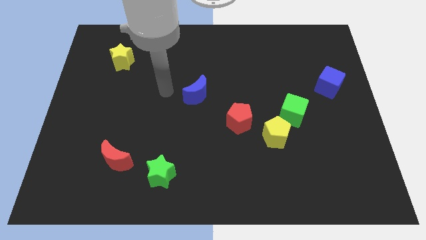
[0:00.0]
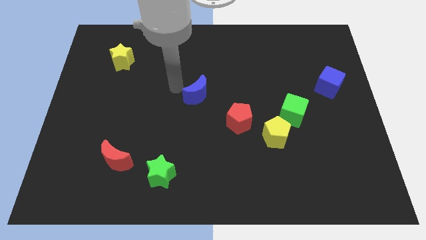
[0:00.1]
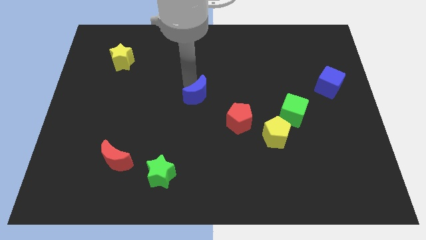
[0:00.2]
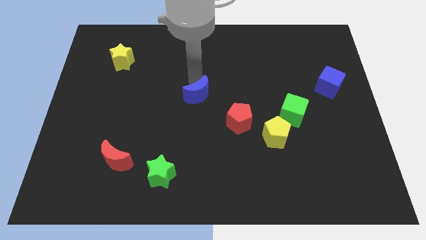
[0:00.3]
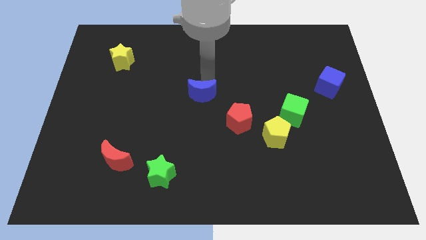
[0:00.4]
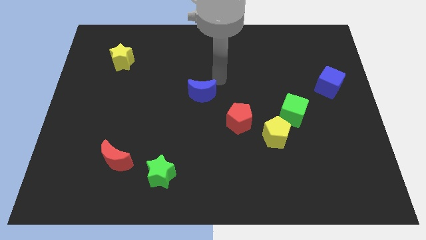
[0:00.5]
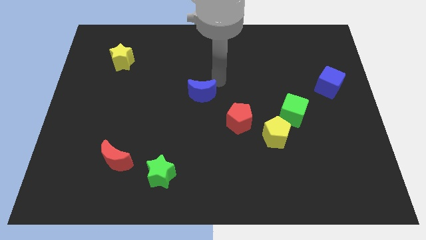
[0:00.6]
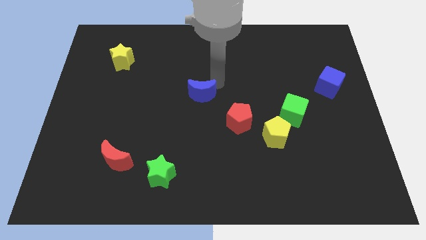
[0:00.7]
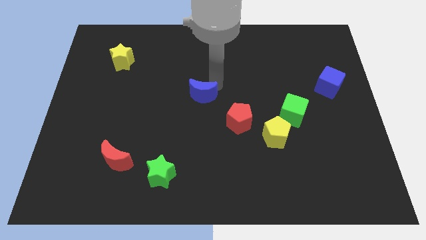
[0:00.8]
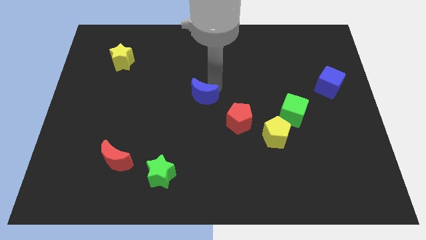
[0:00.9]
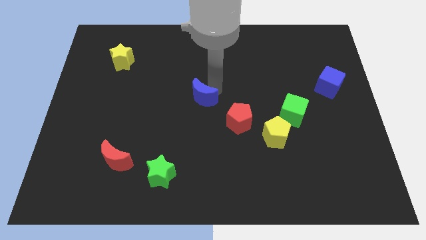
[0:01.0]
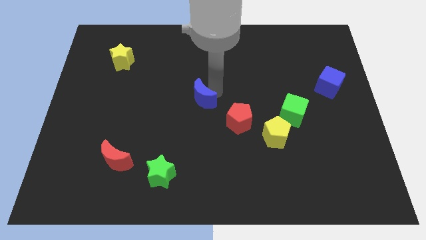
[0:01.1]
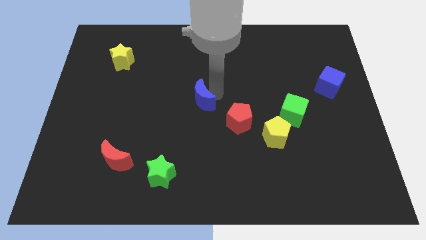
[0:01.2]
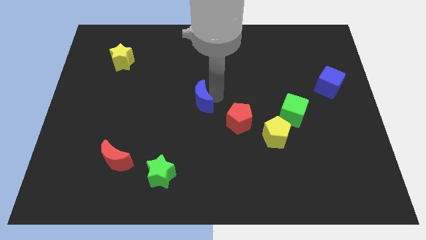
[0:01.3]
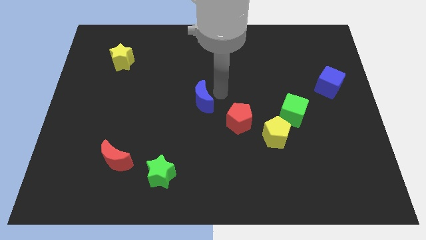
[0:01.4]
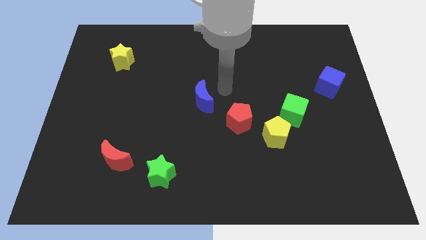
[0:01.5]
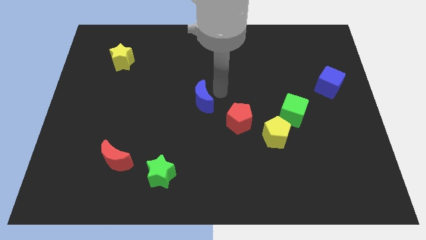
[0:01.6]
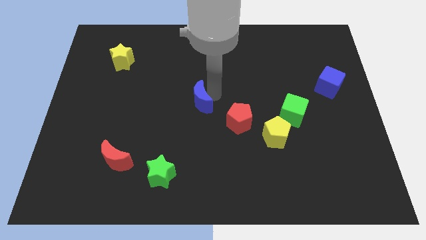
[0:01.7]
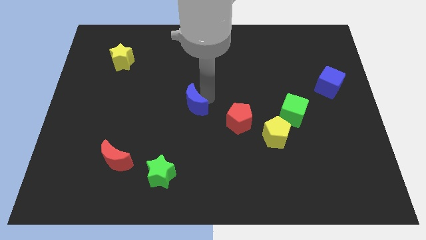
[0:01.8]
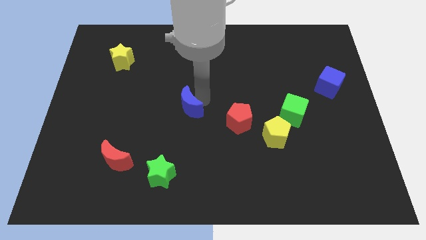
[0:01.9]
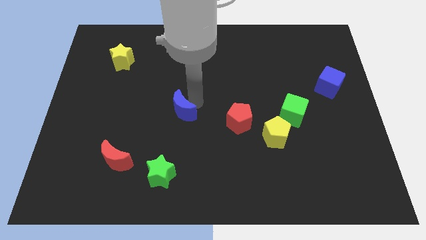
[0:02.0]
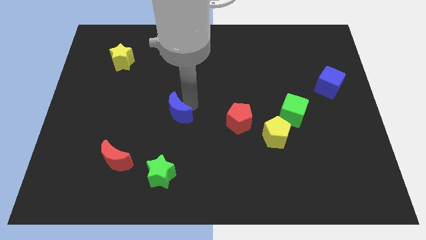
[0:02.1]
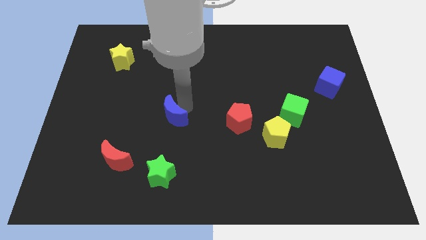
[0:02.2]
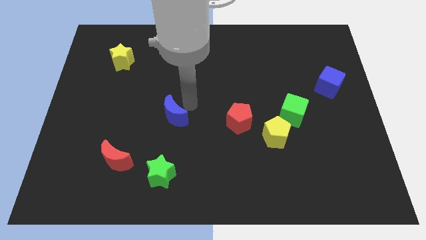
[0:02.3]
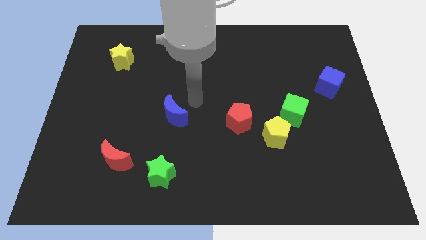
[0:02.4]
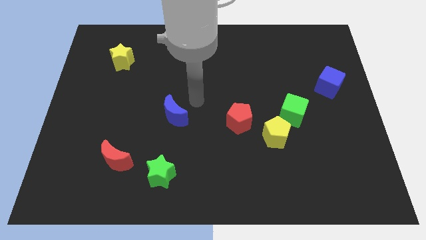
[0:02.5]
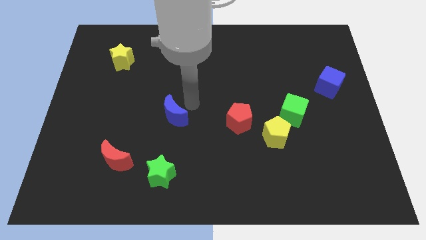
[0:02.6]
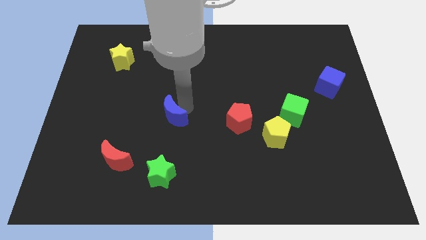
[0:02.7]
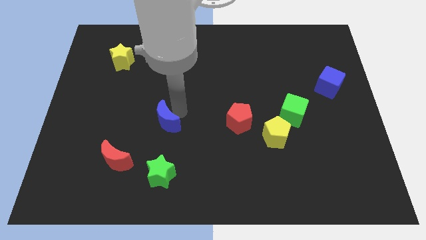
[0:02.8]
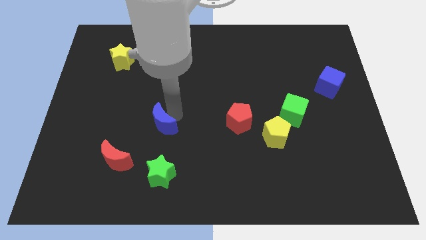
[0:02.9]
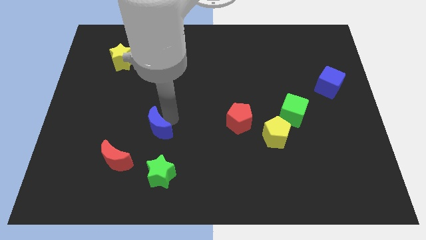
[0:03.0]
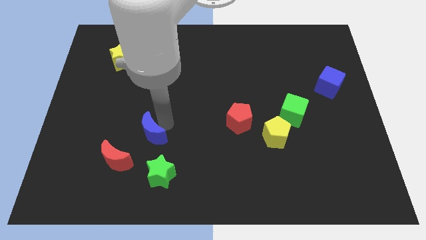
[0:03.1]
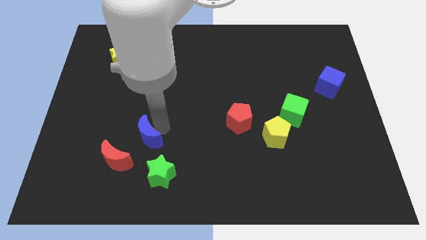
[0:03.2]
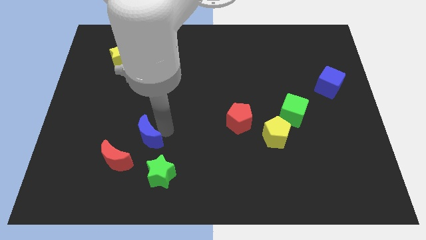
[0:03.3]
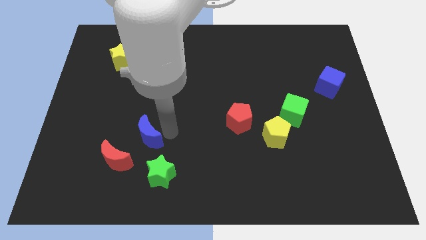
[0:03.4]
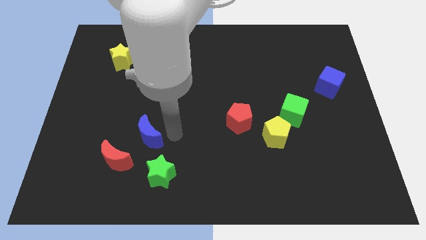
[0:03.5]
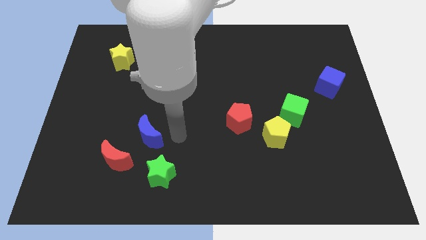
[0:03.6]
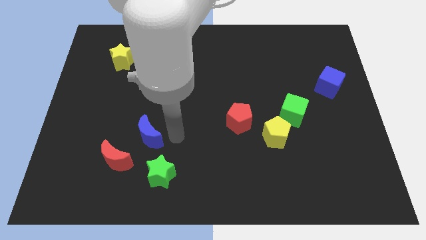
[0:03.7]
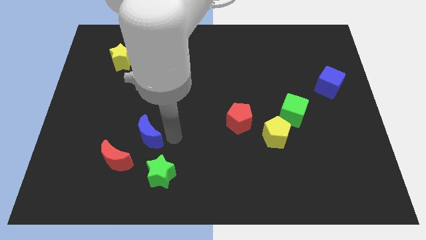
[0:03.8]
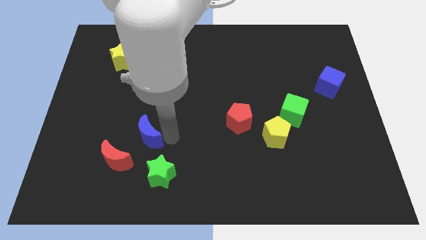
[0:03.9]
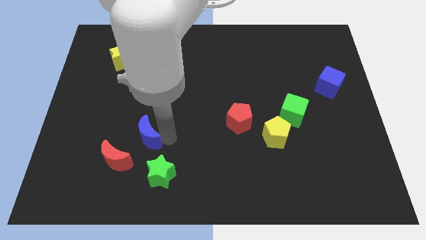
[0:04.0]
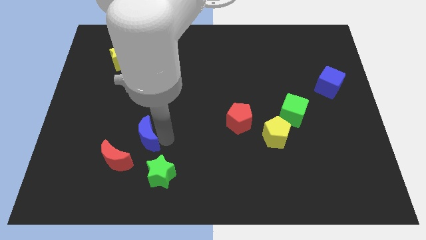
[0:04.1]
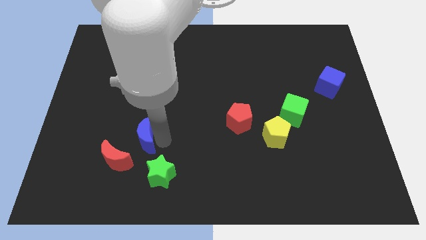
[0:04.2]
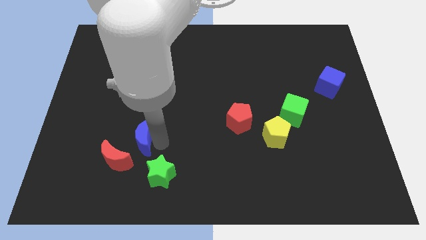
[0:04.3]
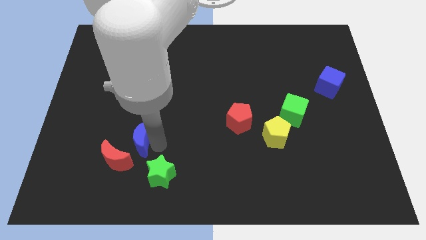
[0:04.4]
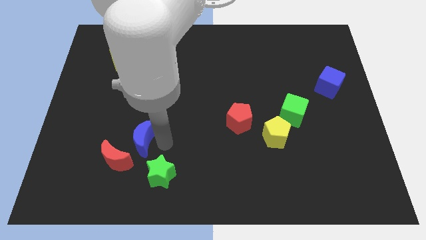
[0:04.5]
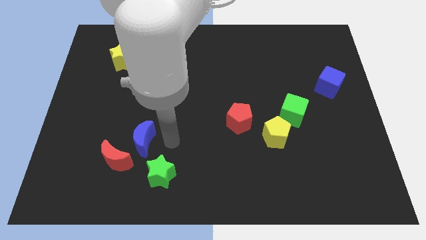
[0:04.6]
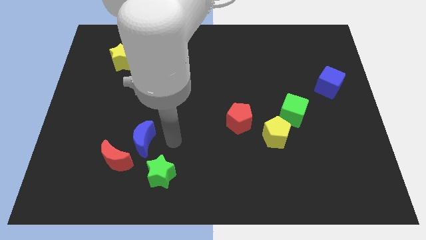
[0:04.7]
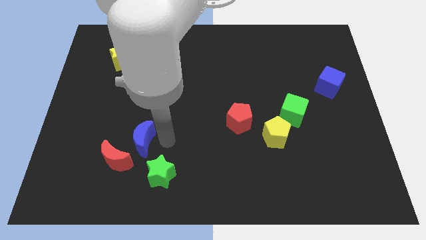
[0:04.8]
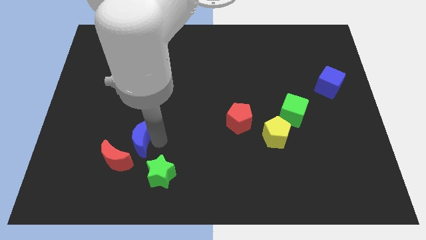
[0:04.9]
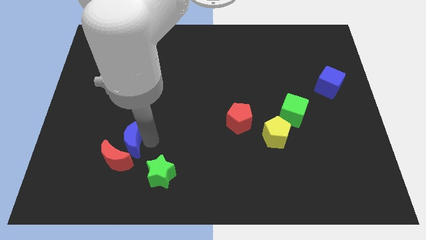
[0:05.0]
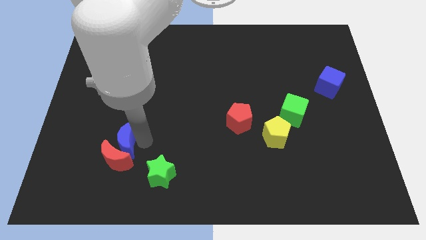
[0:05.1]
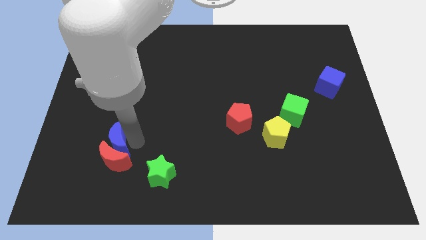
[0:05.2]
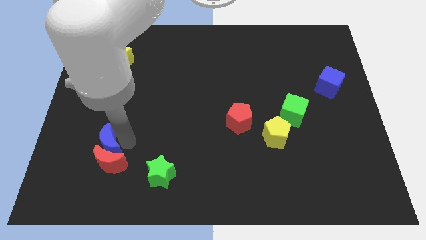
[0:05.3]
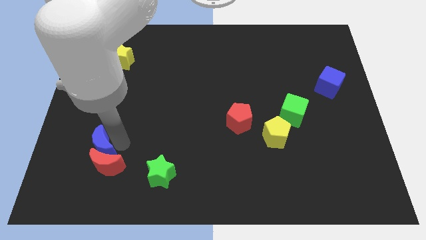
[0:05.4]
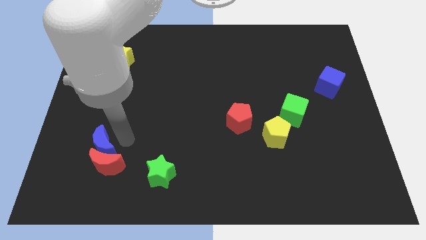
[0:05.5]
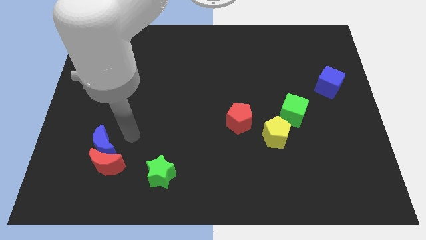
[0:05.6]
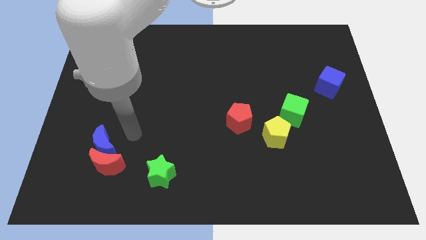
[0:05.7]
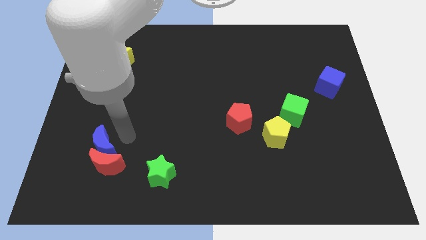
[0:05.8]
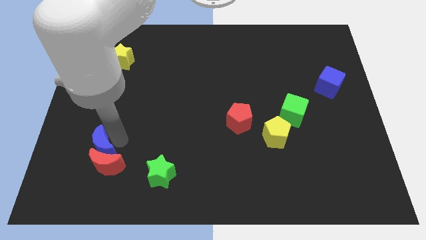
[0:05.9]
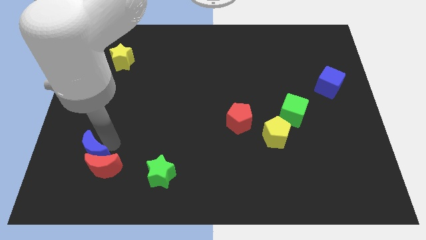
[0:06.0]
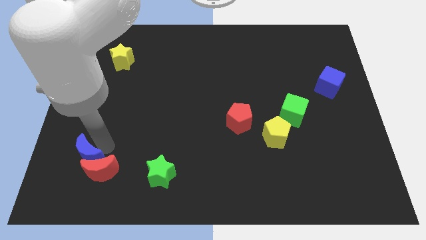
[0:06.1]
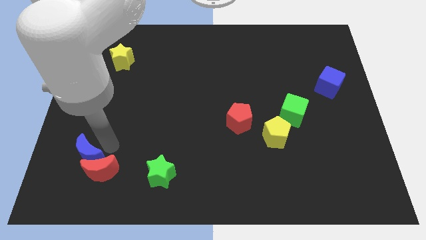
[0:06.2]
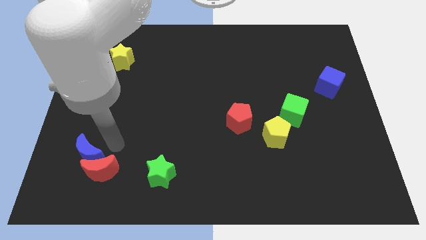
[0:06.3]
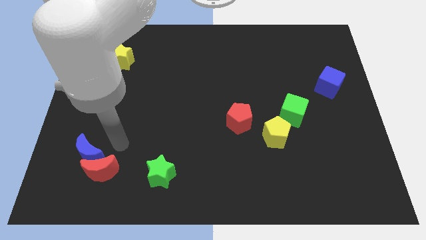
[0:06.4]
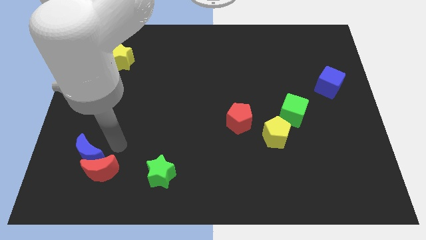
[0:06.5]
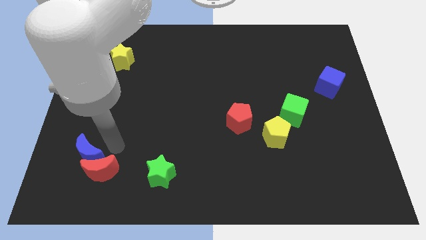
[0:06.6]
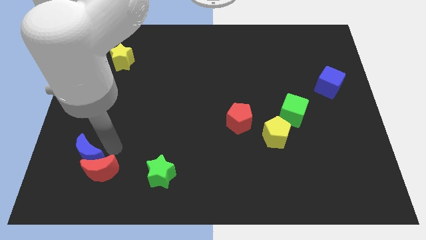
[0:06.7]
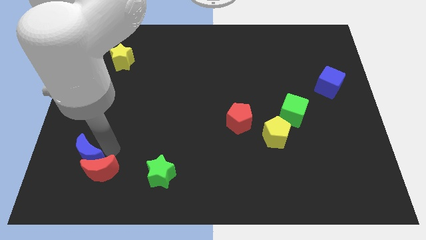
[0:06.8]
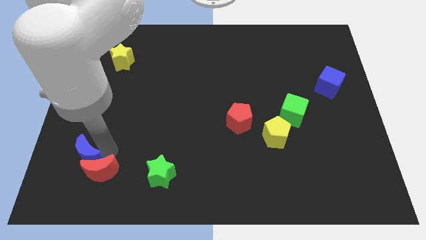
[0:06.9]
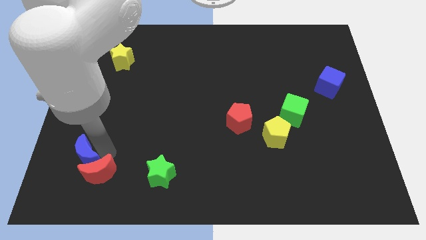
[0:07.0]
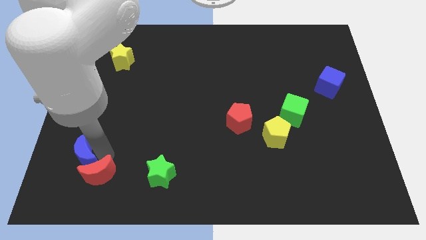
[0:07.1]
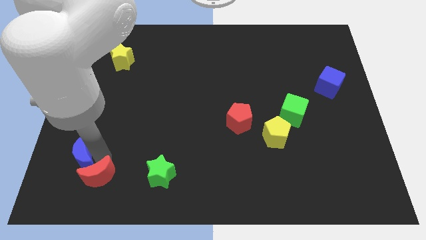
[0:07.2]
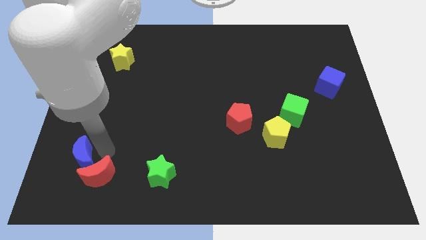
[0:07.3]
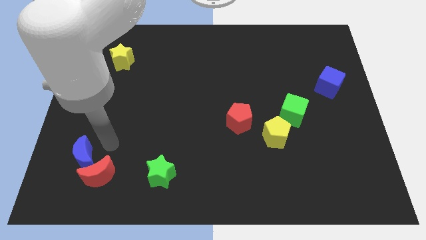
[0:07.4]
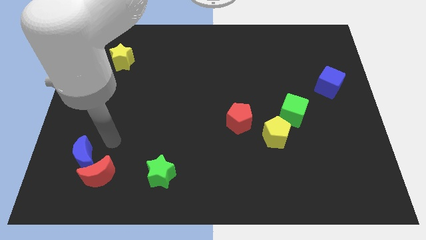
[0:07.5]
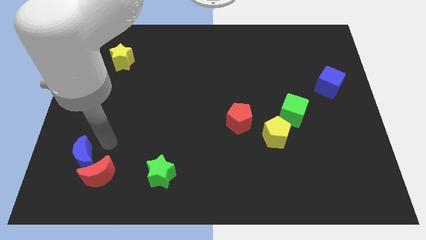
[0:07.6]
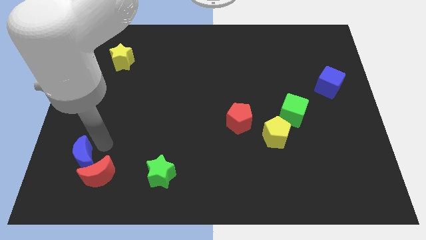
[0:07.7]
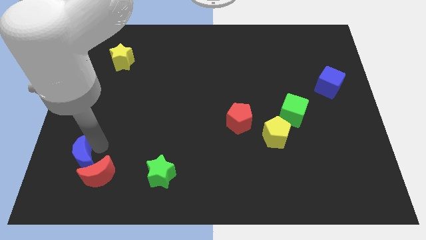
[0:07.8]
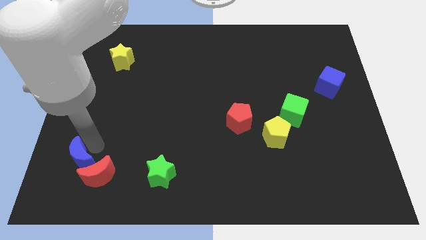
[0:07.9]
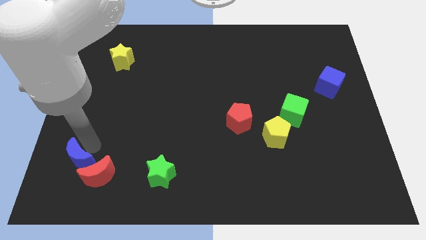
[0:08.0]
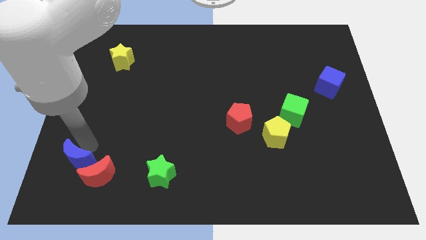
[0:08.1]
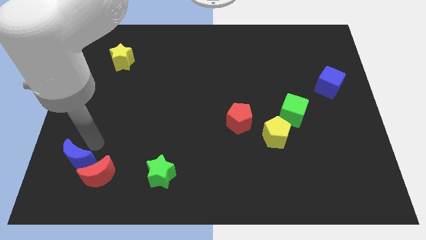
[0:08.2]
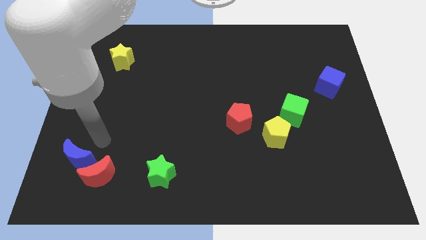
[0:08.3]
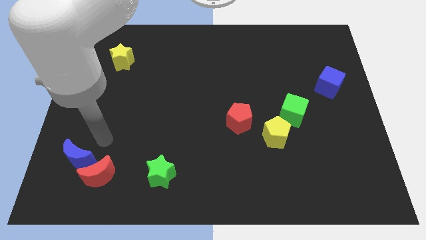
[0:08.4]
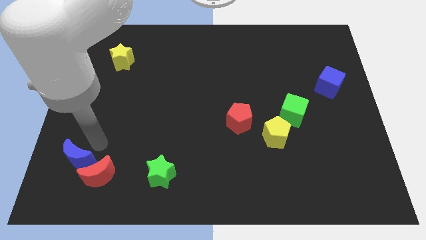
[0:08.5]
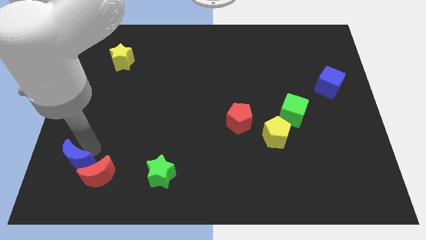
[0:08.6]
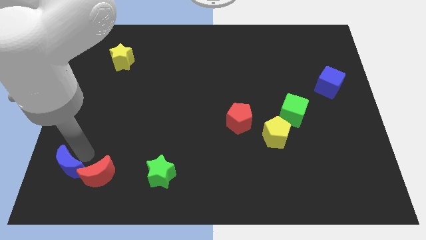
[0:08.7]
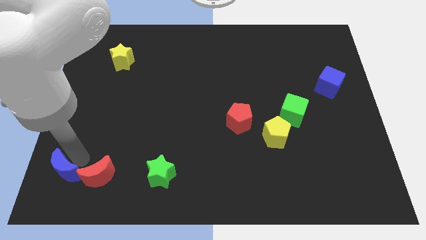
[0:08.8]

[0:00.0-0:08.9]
push the blue moon to the bottom left of the board
